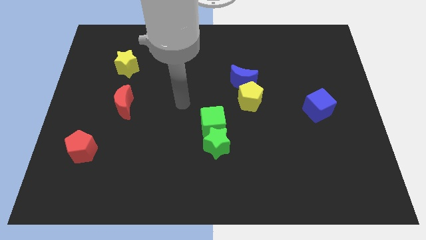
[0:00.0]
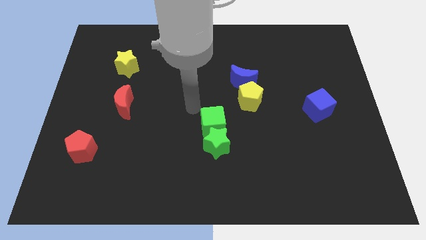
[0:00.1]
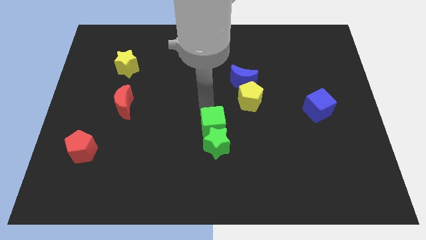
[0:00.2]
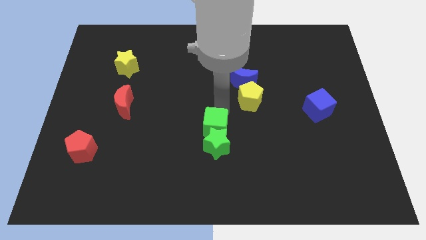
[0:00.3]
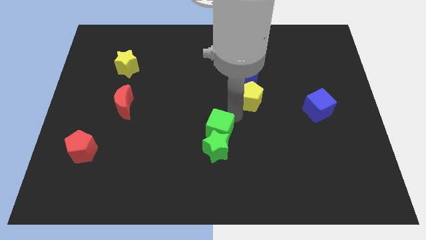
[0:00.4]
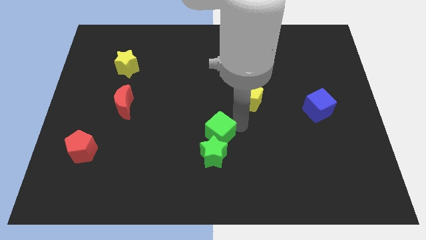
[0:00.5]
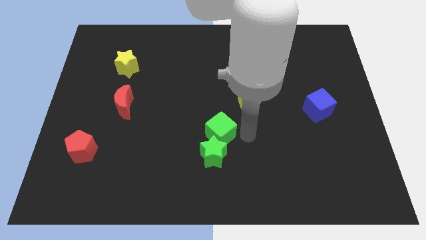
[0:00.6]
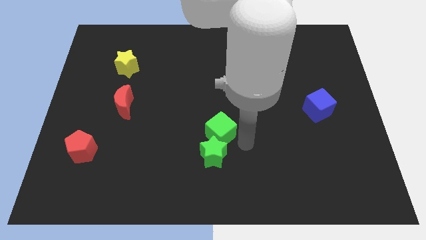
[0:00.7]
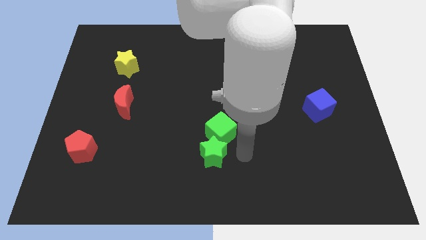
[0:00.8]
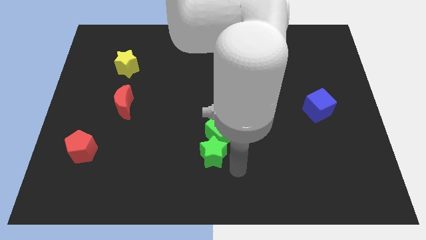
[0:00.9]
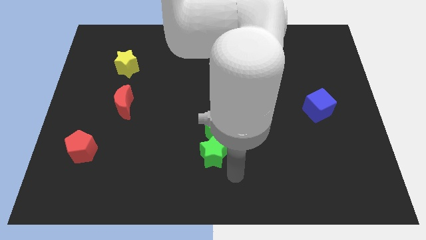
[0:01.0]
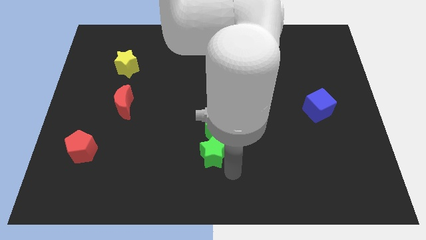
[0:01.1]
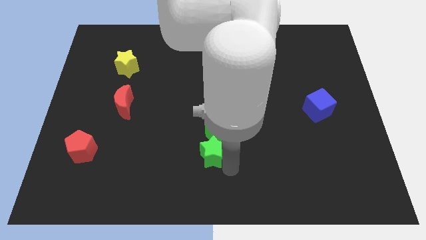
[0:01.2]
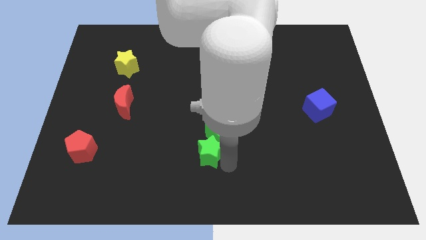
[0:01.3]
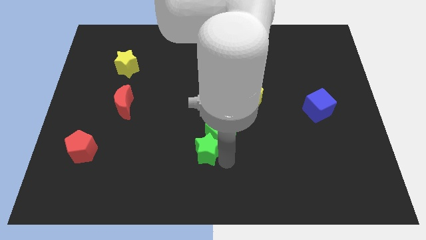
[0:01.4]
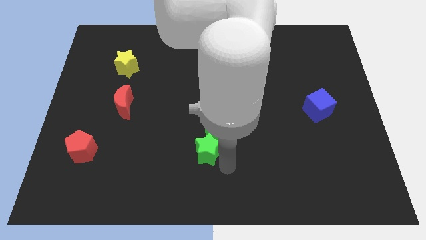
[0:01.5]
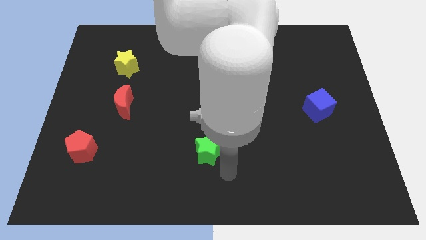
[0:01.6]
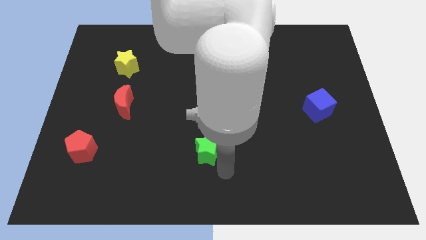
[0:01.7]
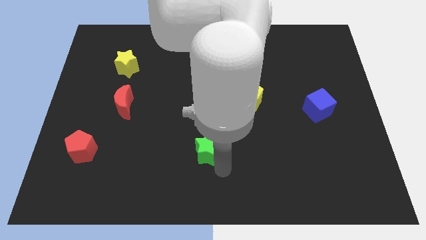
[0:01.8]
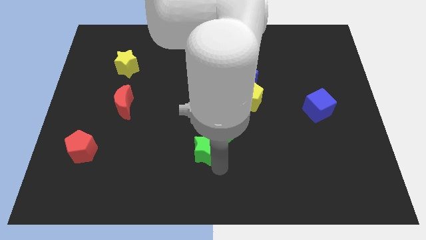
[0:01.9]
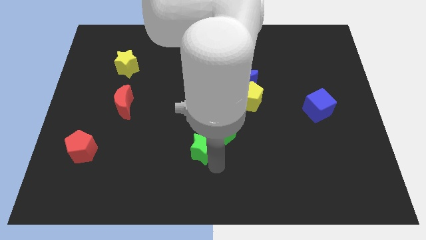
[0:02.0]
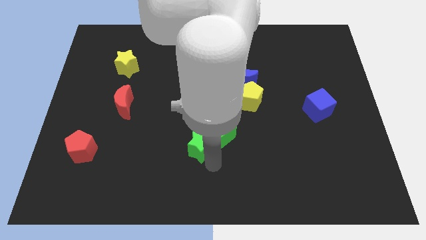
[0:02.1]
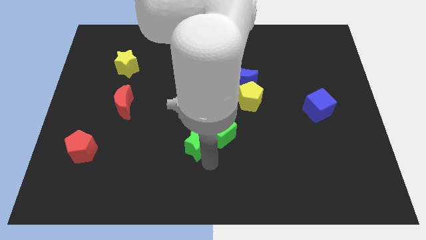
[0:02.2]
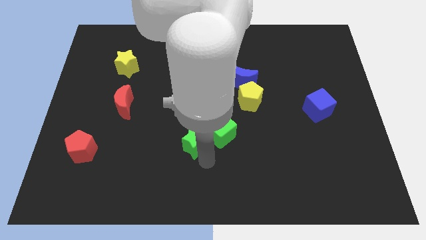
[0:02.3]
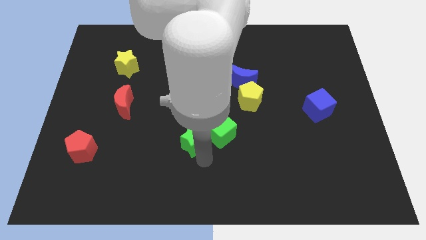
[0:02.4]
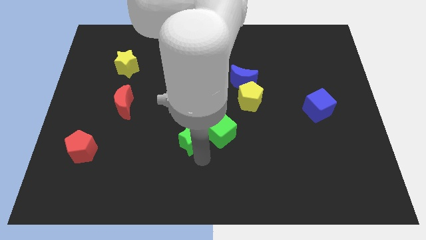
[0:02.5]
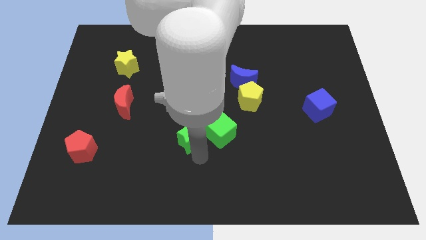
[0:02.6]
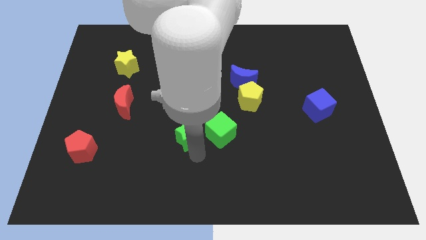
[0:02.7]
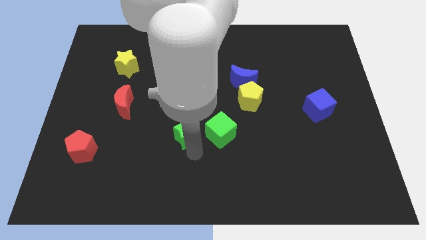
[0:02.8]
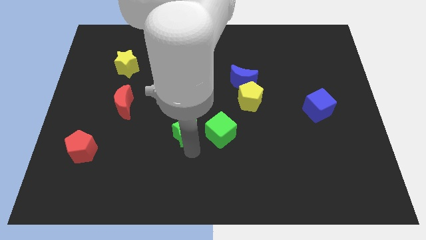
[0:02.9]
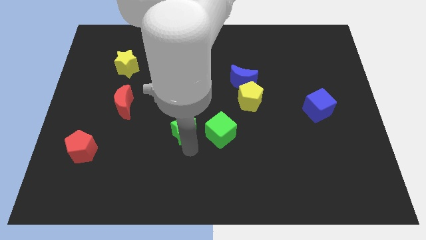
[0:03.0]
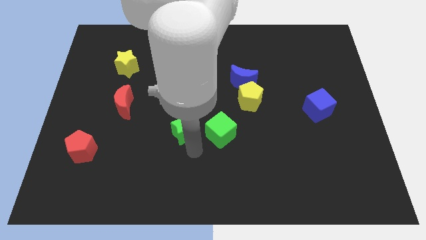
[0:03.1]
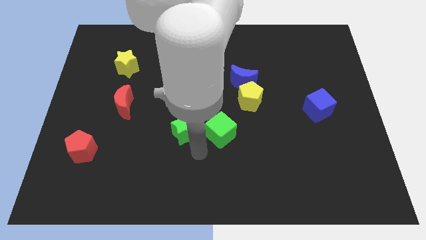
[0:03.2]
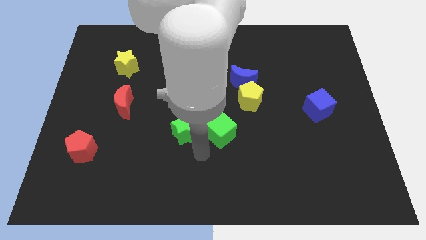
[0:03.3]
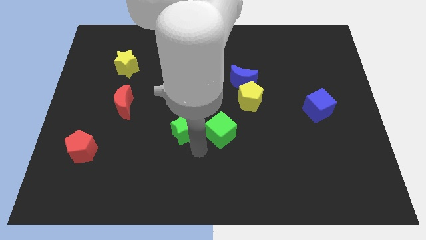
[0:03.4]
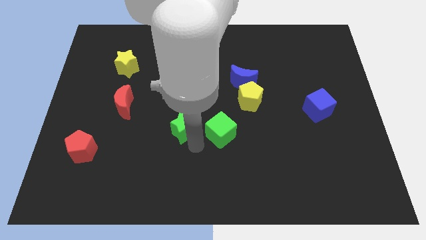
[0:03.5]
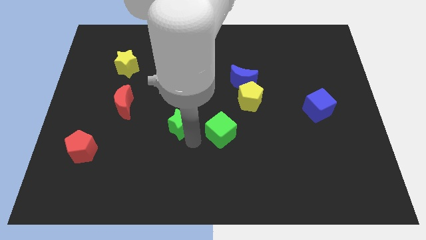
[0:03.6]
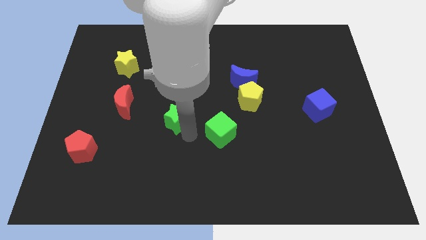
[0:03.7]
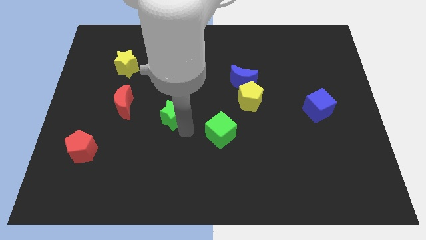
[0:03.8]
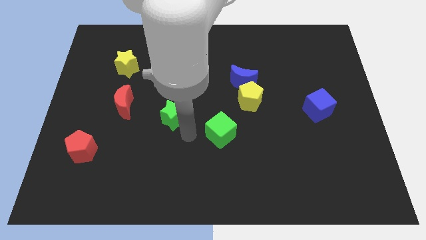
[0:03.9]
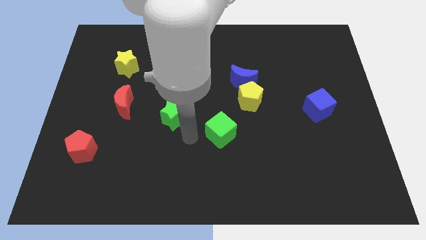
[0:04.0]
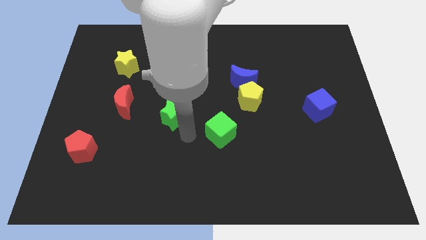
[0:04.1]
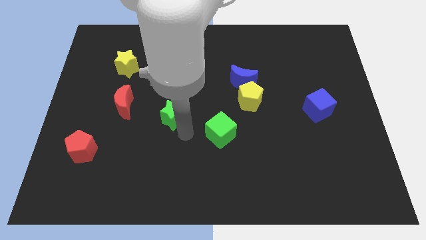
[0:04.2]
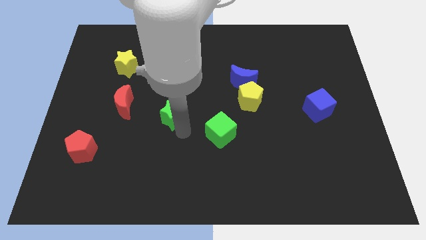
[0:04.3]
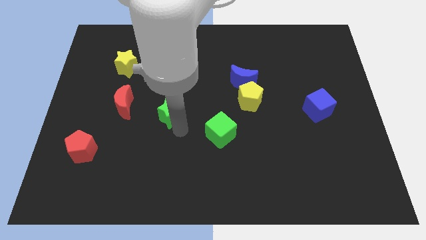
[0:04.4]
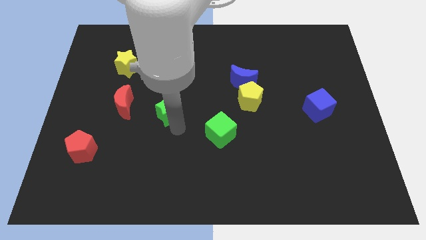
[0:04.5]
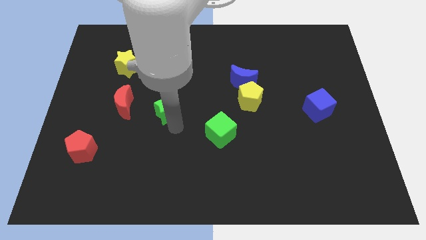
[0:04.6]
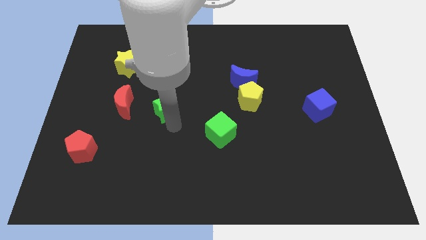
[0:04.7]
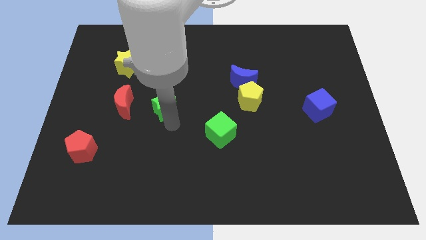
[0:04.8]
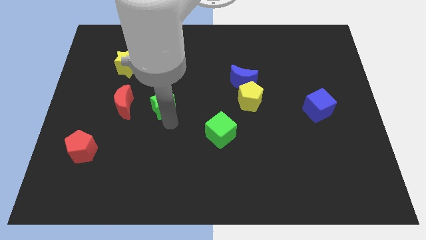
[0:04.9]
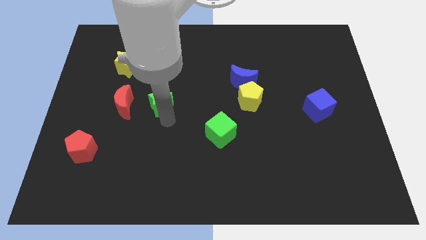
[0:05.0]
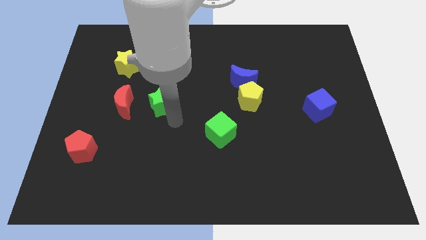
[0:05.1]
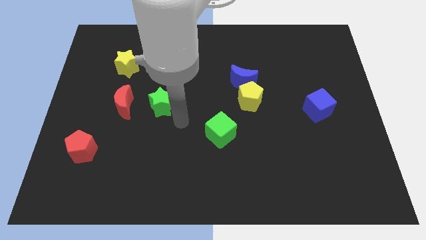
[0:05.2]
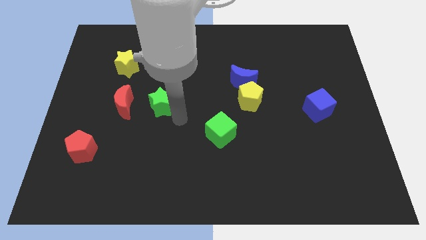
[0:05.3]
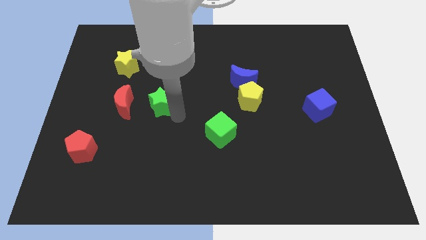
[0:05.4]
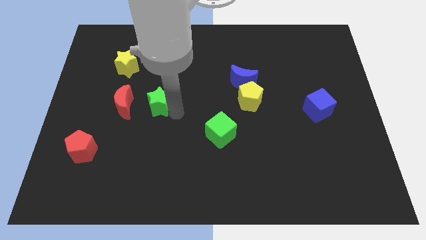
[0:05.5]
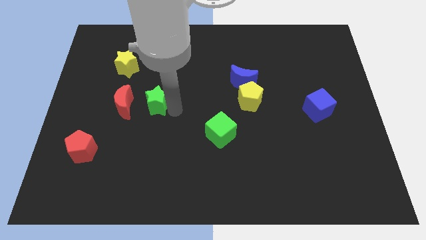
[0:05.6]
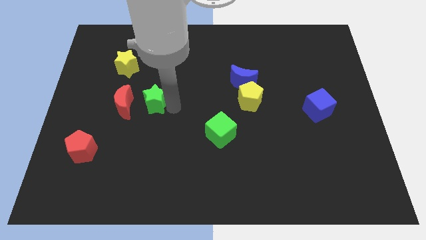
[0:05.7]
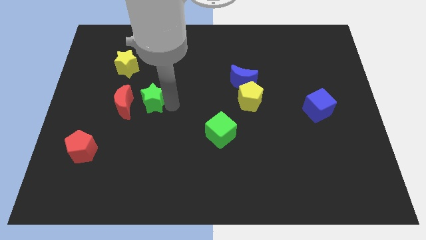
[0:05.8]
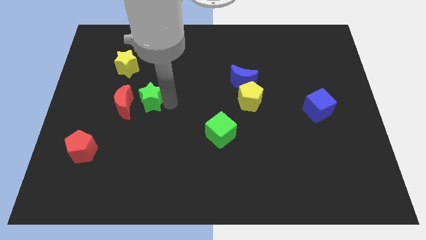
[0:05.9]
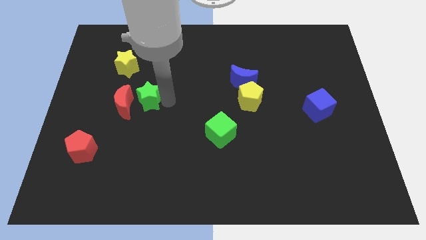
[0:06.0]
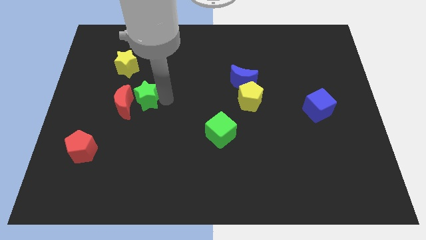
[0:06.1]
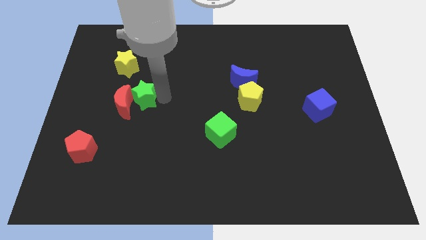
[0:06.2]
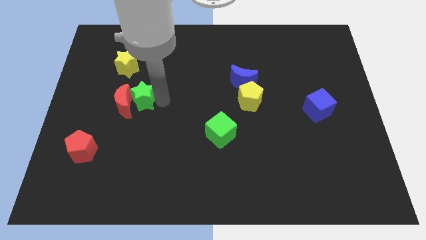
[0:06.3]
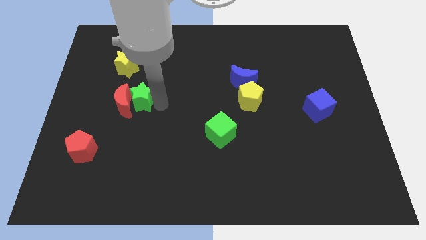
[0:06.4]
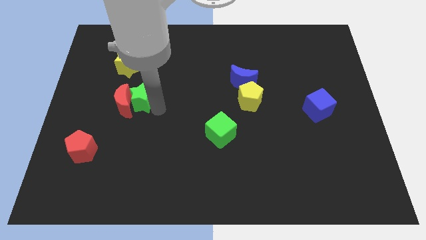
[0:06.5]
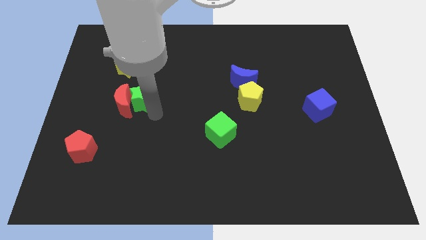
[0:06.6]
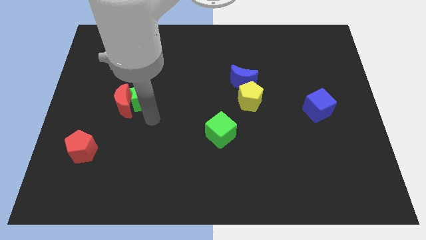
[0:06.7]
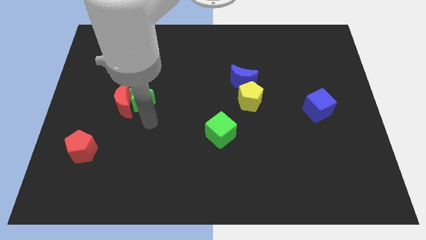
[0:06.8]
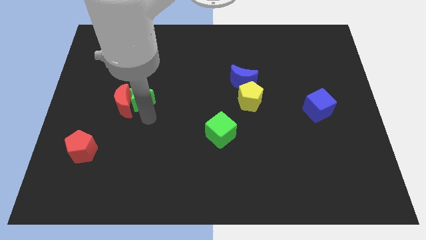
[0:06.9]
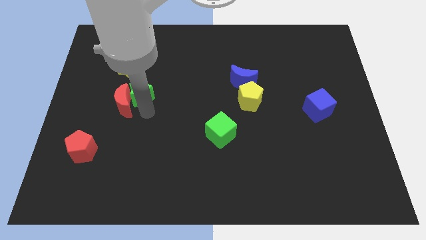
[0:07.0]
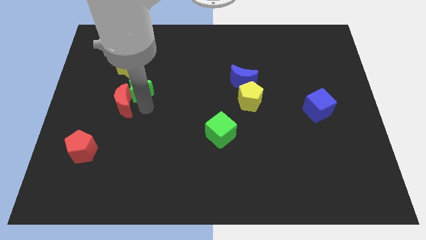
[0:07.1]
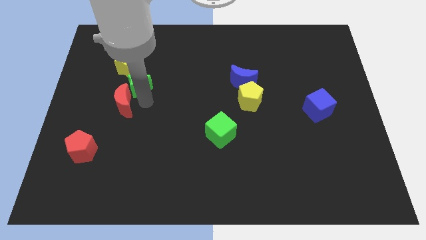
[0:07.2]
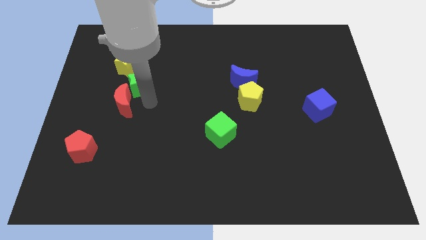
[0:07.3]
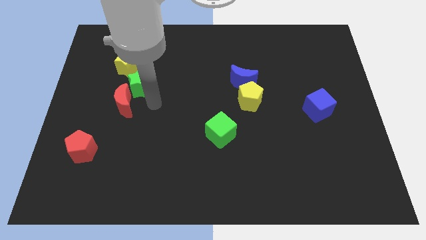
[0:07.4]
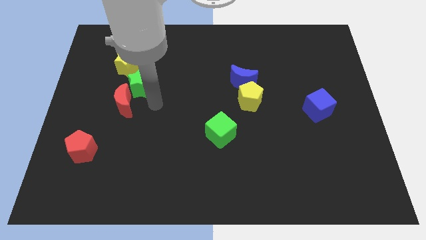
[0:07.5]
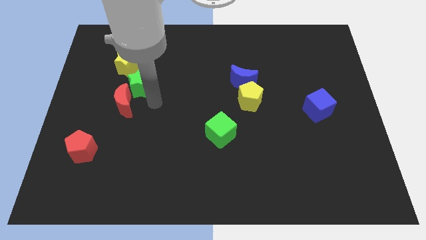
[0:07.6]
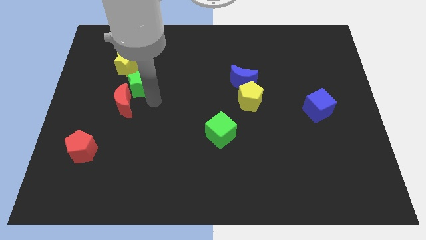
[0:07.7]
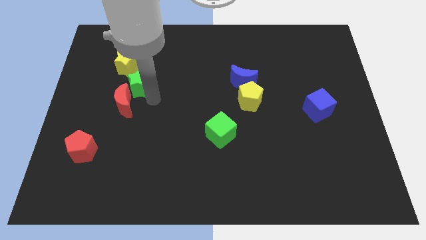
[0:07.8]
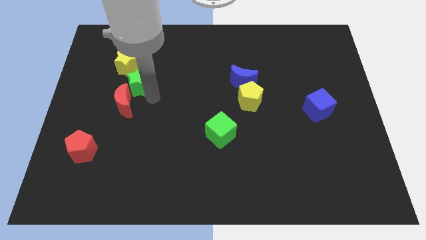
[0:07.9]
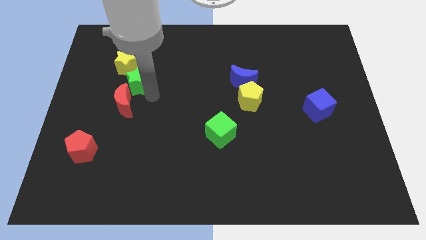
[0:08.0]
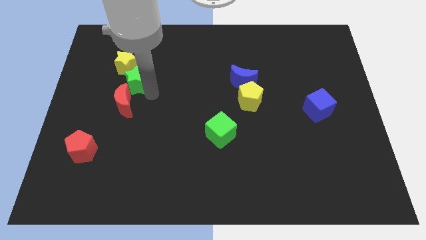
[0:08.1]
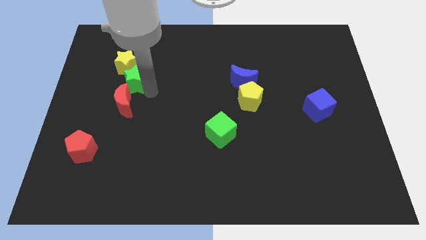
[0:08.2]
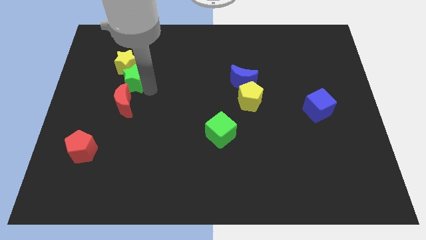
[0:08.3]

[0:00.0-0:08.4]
push the green star next to the yellow star
